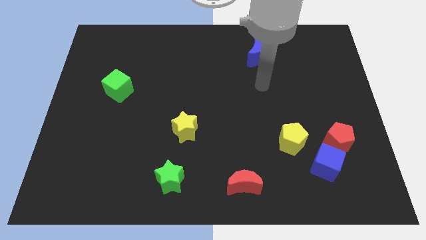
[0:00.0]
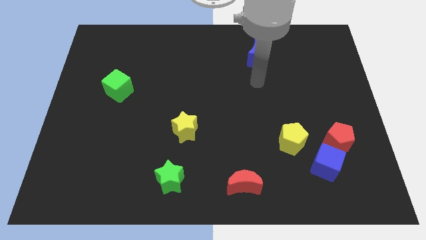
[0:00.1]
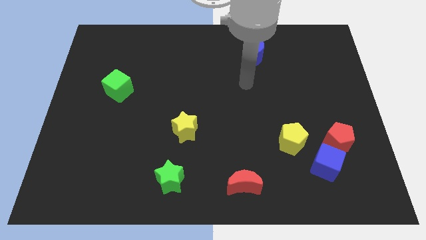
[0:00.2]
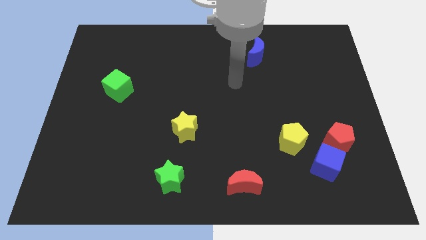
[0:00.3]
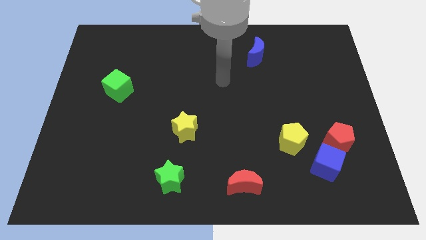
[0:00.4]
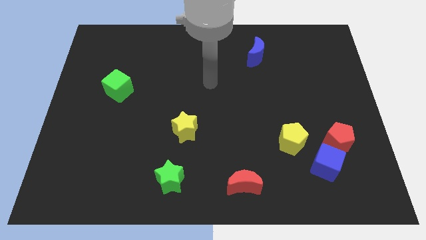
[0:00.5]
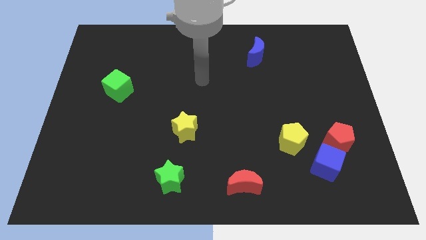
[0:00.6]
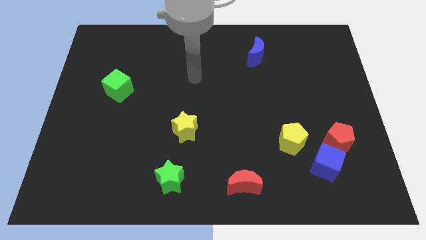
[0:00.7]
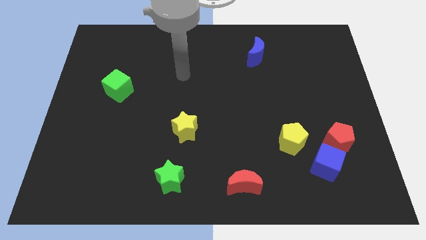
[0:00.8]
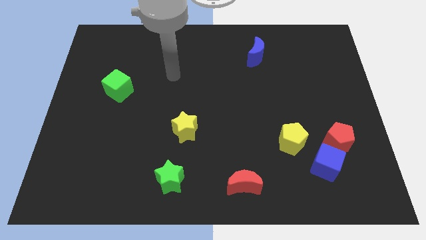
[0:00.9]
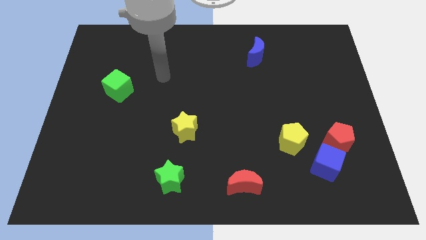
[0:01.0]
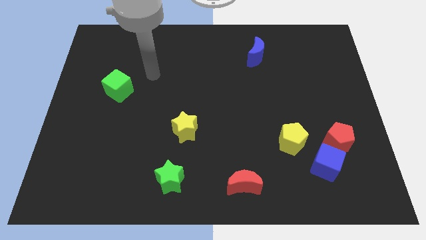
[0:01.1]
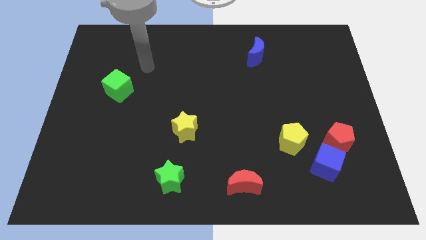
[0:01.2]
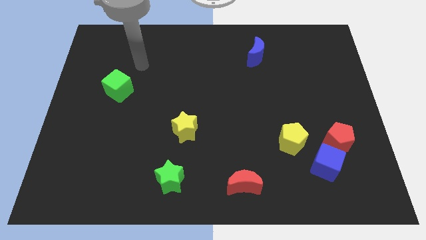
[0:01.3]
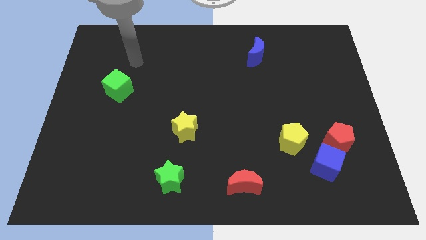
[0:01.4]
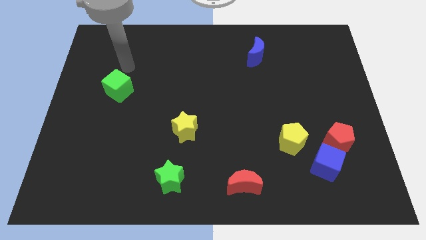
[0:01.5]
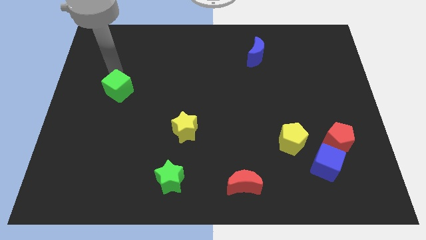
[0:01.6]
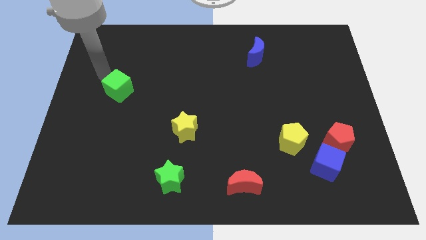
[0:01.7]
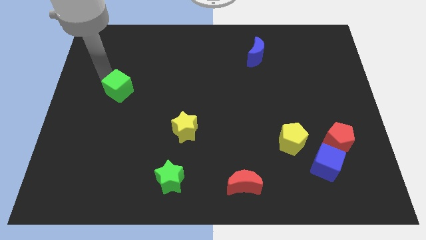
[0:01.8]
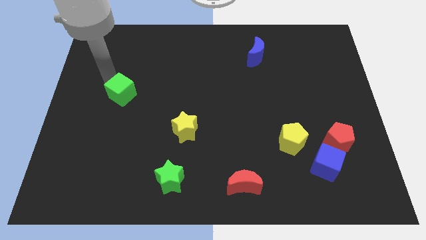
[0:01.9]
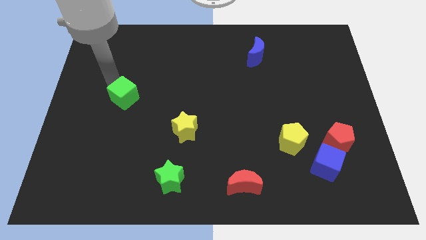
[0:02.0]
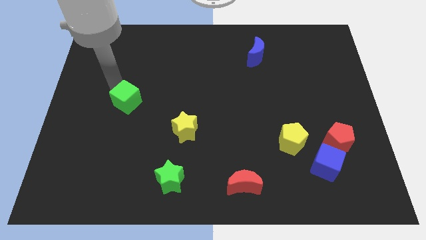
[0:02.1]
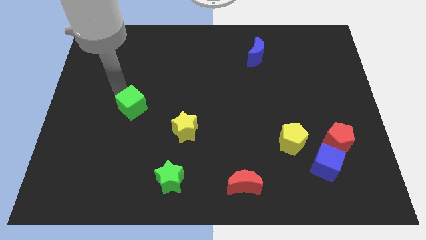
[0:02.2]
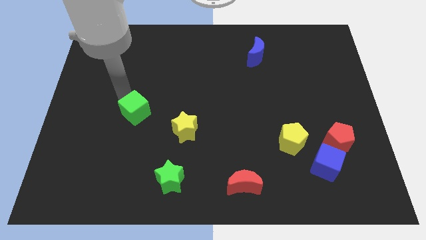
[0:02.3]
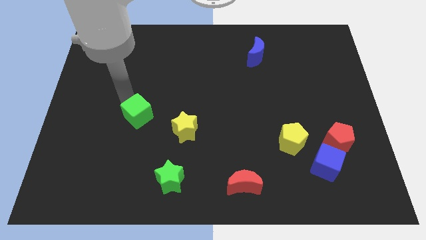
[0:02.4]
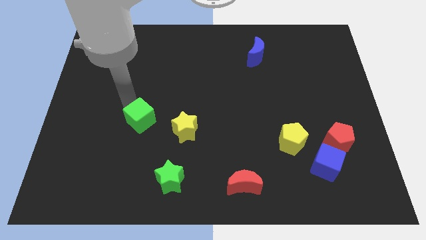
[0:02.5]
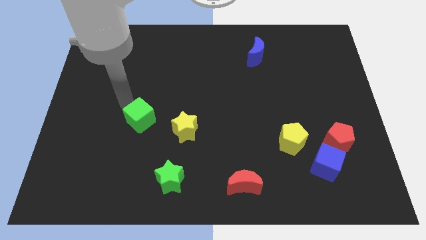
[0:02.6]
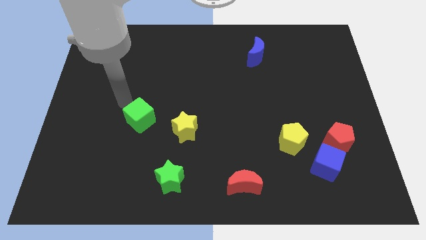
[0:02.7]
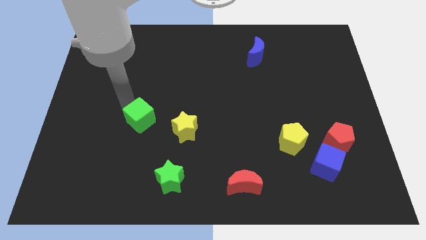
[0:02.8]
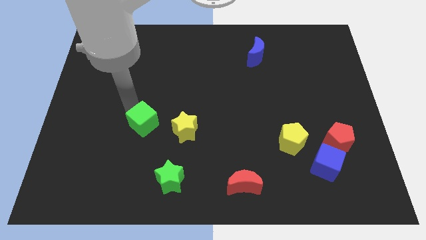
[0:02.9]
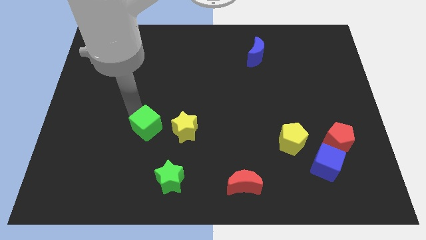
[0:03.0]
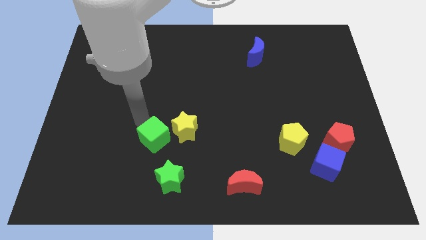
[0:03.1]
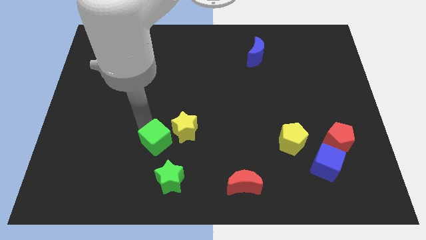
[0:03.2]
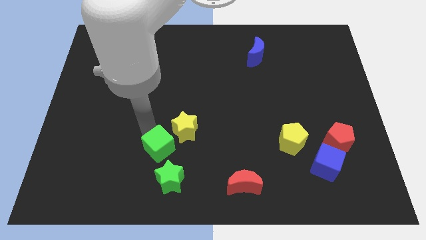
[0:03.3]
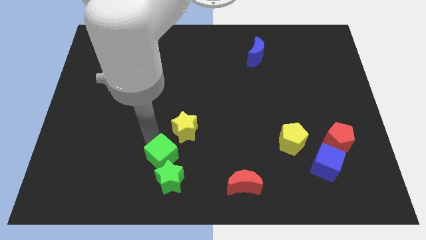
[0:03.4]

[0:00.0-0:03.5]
move the green cube diagonally downwards and right

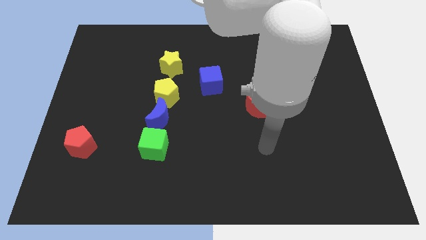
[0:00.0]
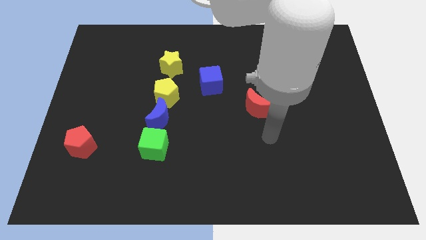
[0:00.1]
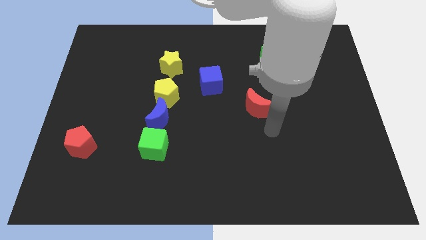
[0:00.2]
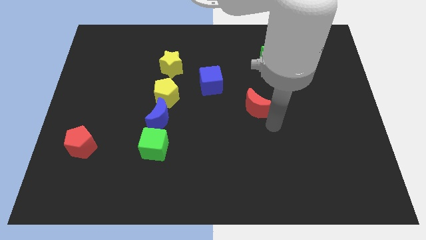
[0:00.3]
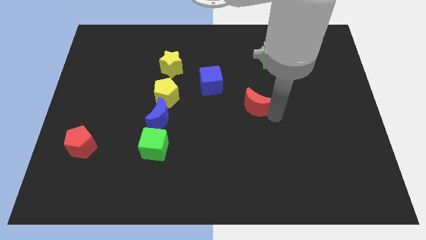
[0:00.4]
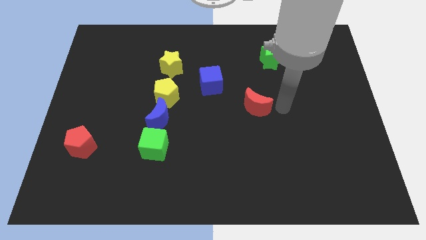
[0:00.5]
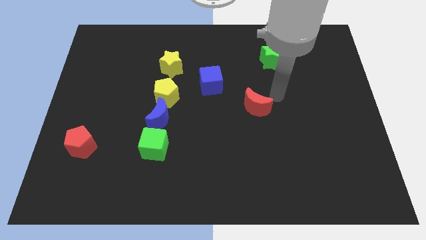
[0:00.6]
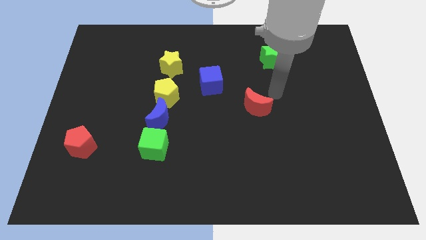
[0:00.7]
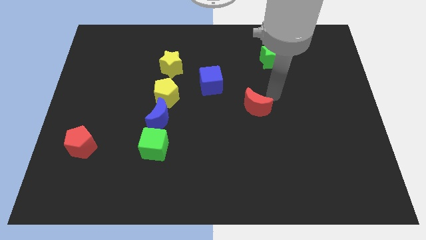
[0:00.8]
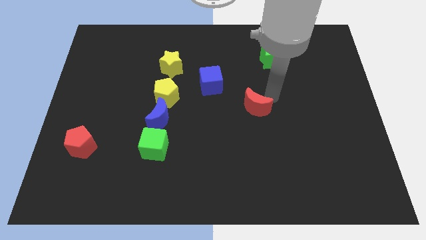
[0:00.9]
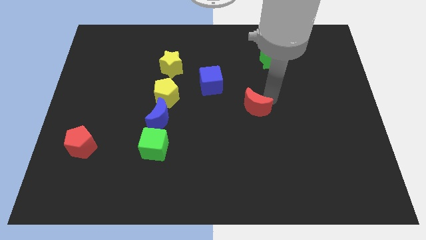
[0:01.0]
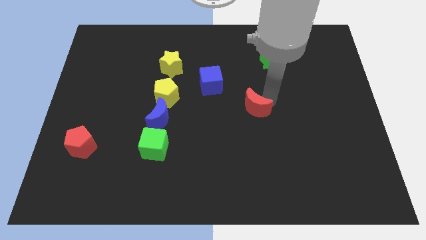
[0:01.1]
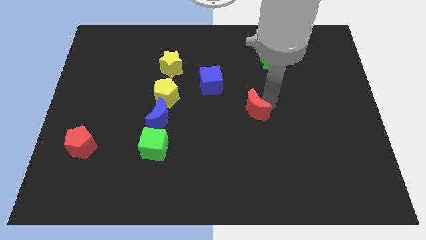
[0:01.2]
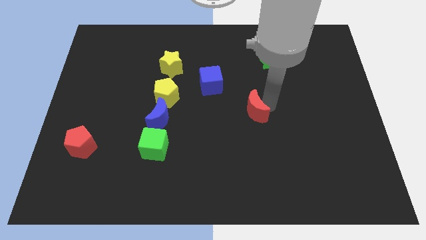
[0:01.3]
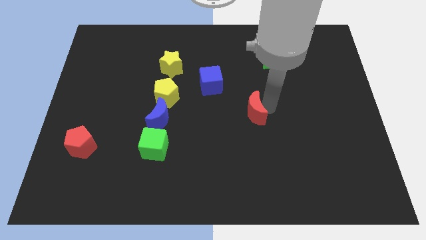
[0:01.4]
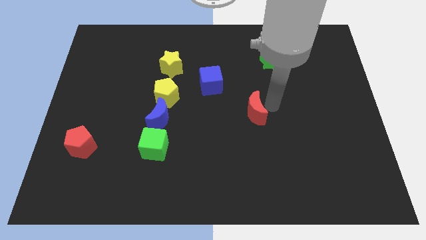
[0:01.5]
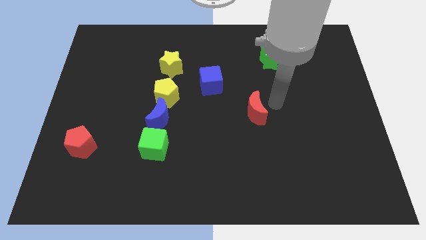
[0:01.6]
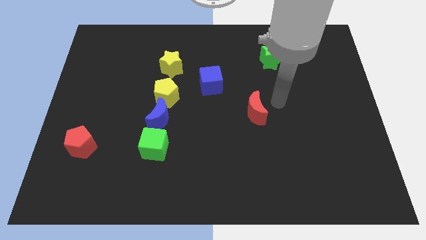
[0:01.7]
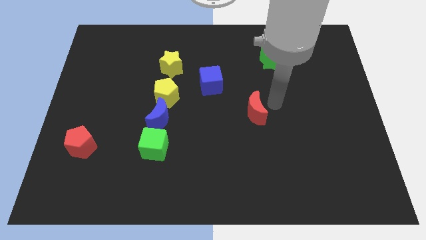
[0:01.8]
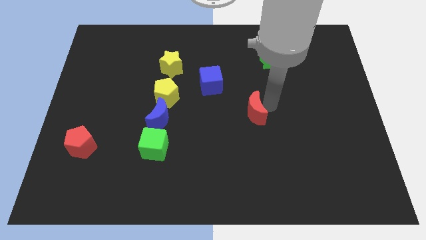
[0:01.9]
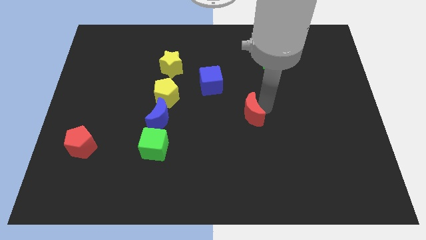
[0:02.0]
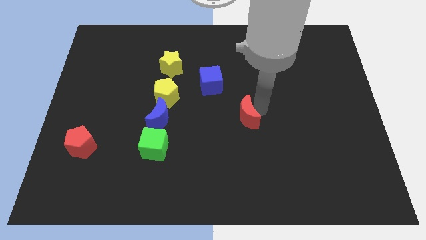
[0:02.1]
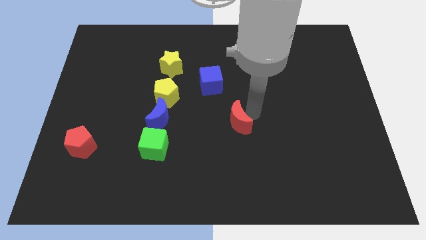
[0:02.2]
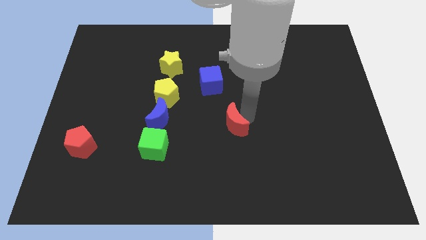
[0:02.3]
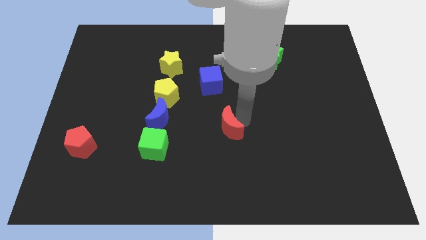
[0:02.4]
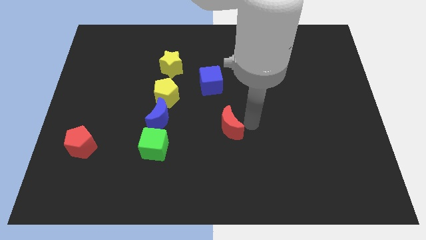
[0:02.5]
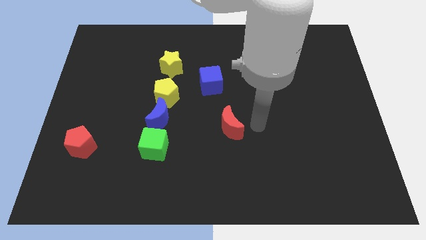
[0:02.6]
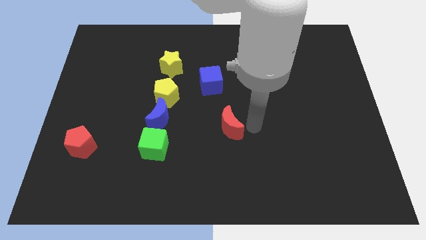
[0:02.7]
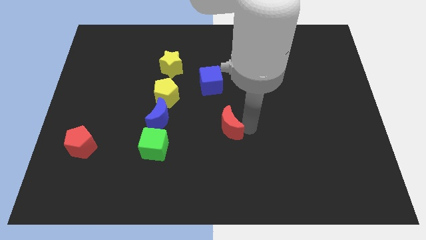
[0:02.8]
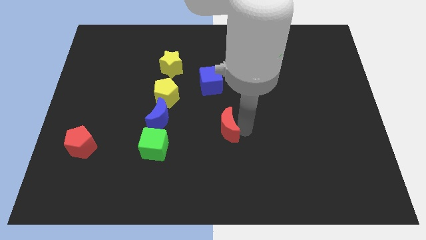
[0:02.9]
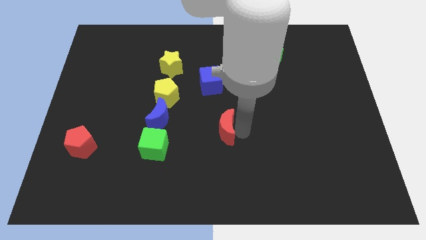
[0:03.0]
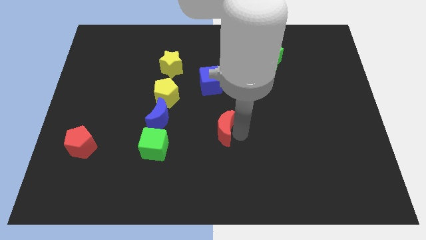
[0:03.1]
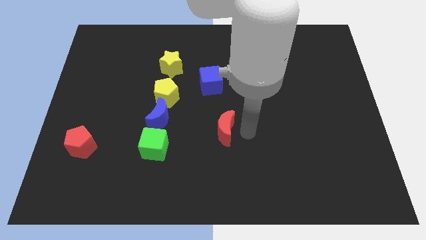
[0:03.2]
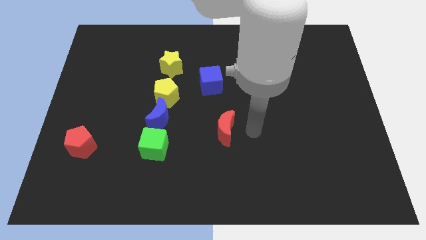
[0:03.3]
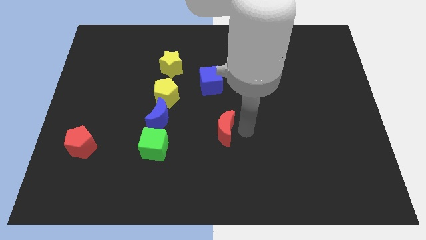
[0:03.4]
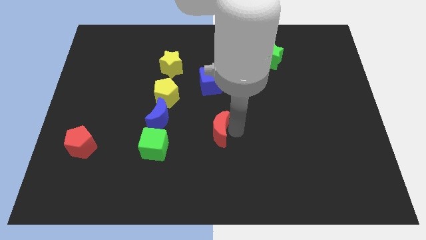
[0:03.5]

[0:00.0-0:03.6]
slightly push the red moon to the left

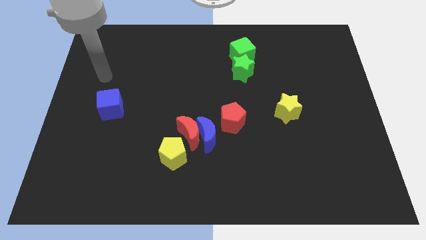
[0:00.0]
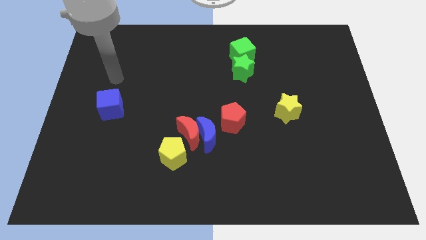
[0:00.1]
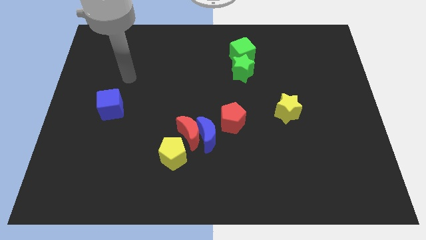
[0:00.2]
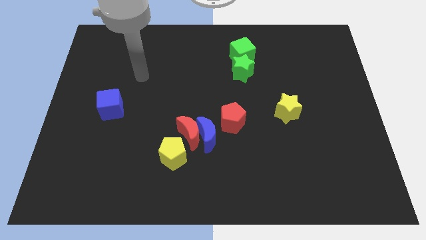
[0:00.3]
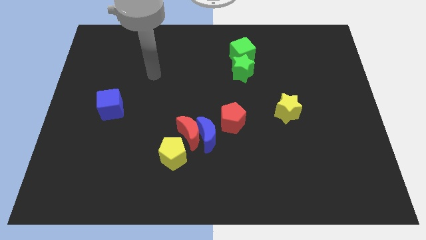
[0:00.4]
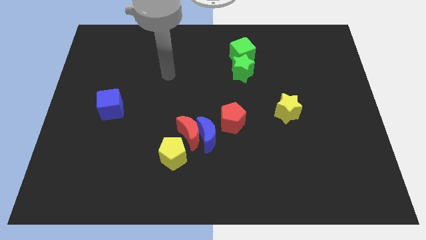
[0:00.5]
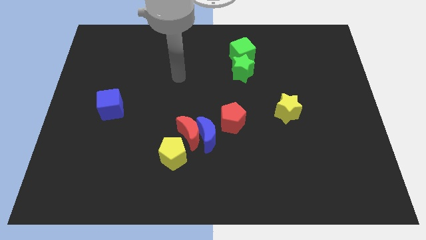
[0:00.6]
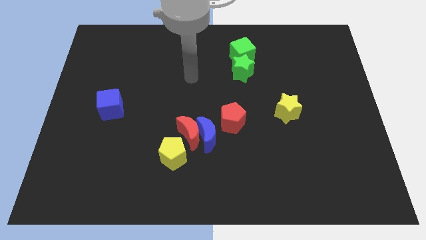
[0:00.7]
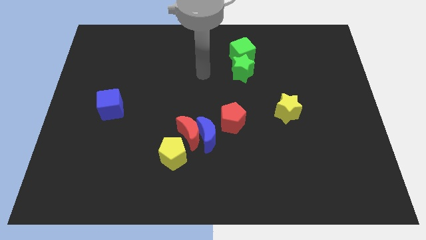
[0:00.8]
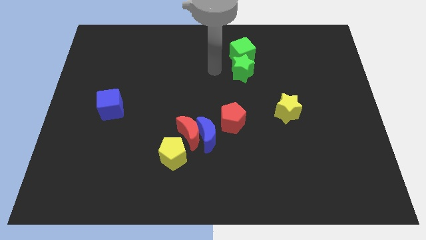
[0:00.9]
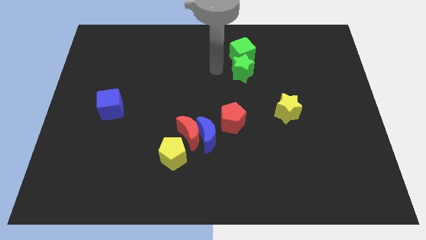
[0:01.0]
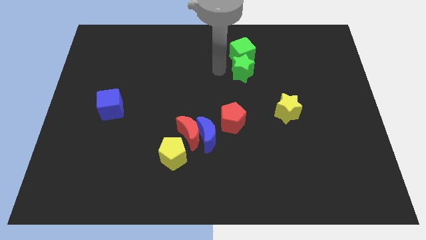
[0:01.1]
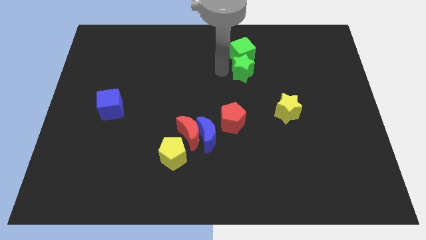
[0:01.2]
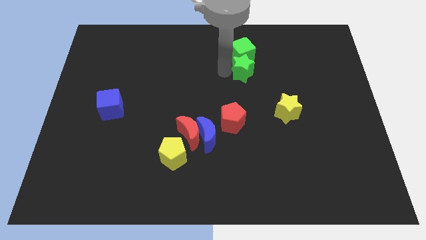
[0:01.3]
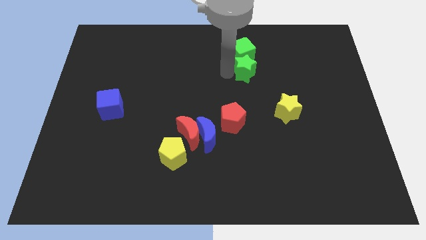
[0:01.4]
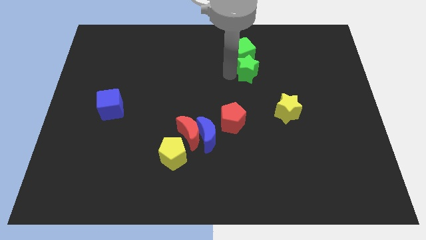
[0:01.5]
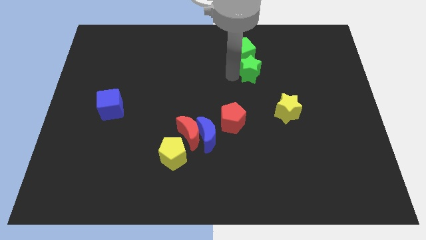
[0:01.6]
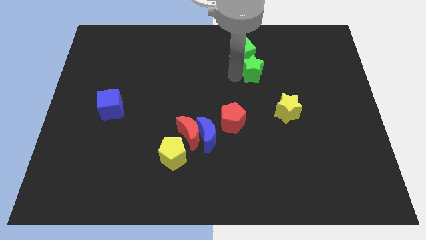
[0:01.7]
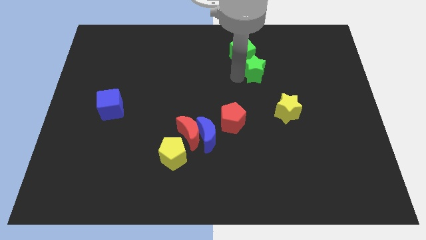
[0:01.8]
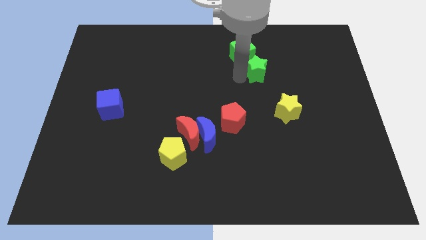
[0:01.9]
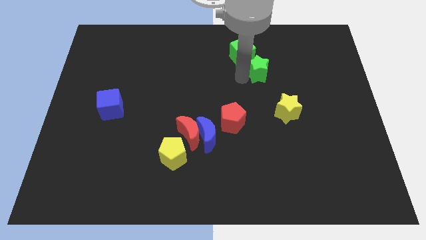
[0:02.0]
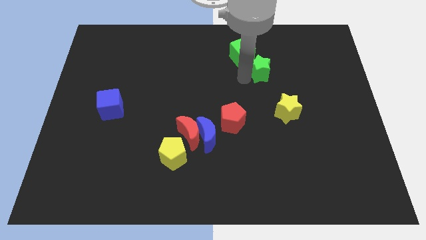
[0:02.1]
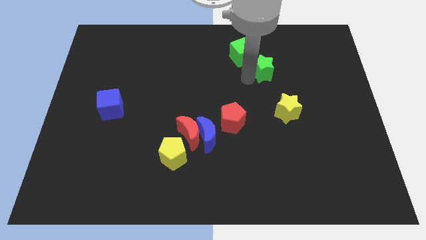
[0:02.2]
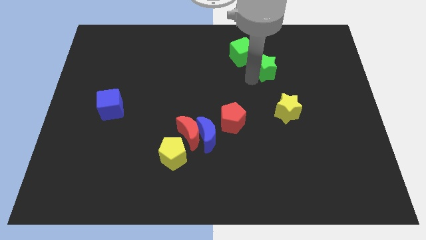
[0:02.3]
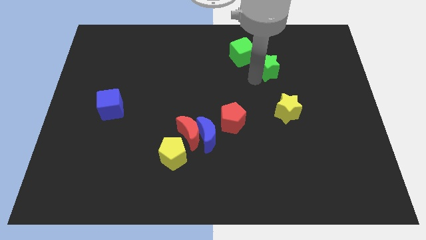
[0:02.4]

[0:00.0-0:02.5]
slide the green star a little right
